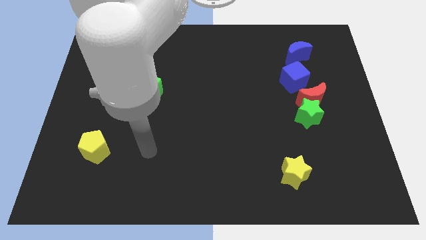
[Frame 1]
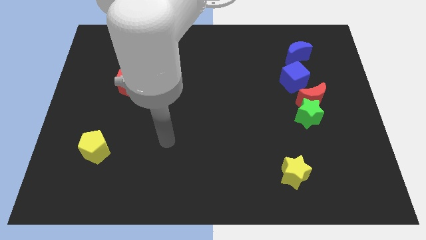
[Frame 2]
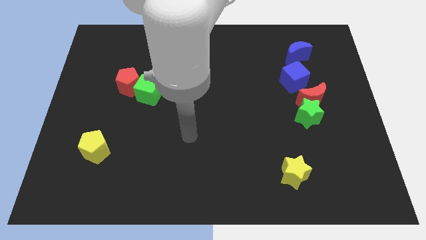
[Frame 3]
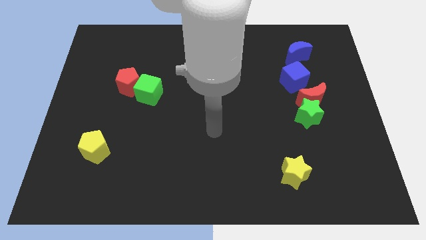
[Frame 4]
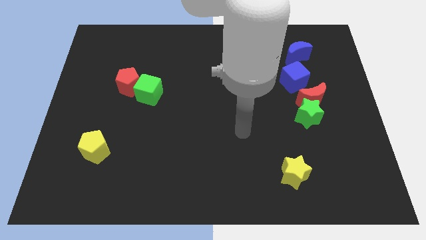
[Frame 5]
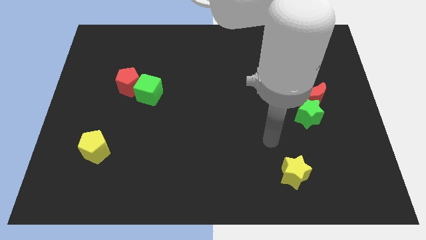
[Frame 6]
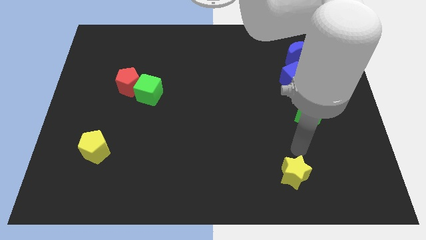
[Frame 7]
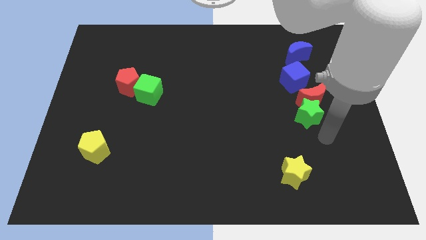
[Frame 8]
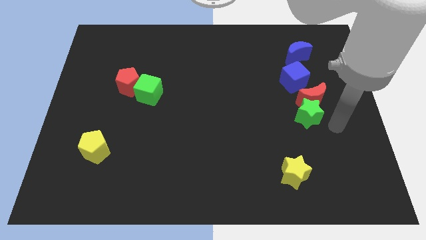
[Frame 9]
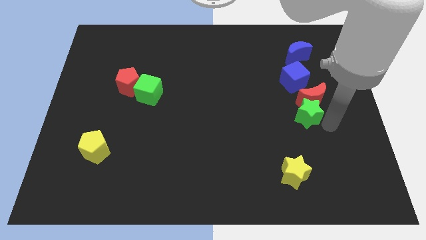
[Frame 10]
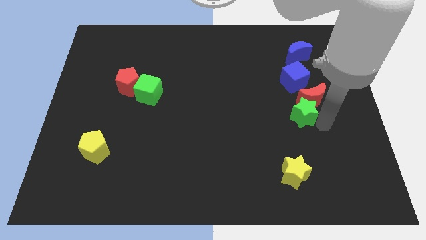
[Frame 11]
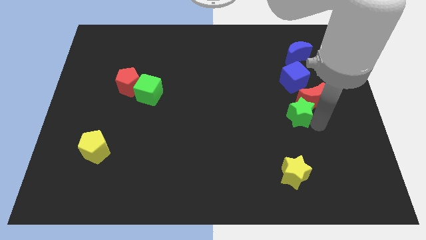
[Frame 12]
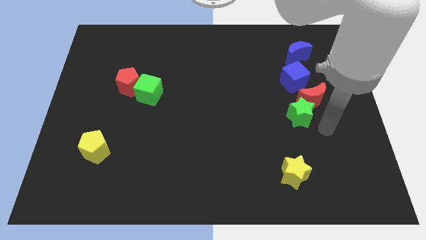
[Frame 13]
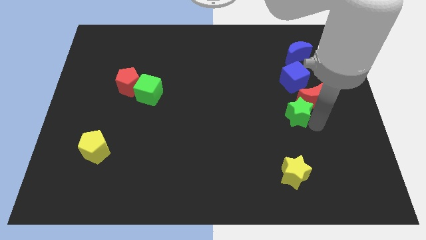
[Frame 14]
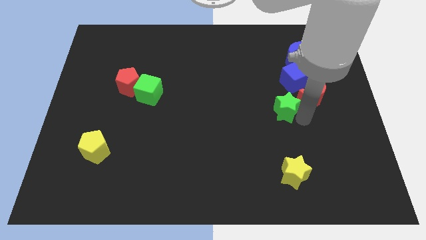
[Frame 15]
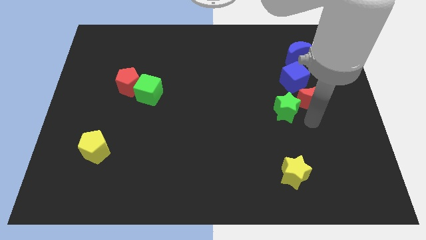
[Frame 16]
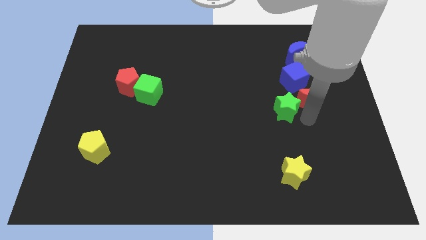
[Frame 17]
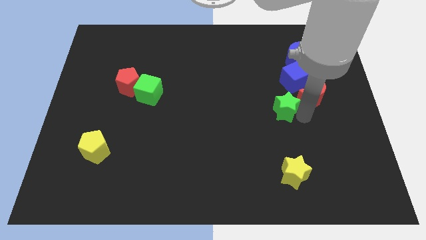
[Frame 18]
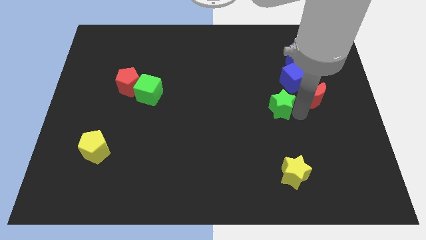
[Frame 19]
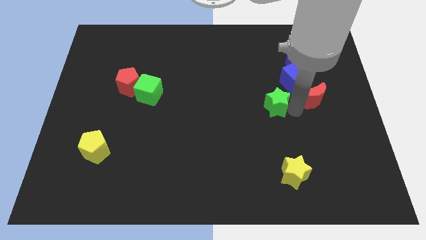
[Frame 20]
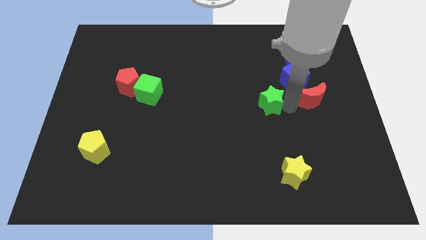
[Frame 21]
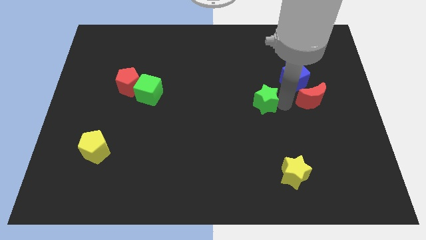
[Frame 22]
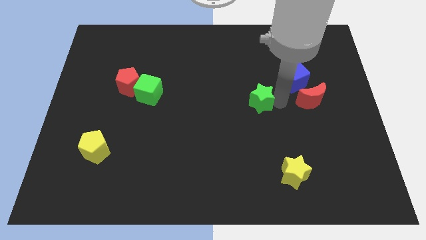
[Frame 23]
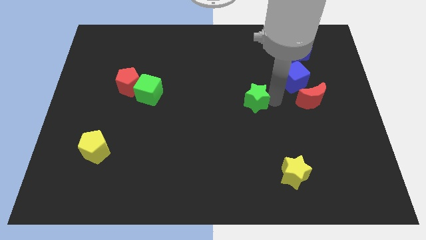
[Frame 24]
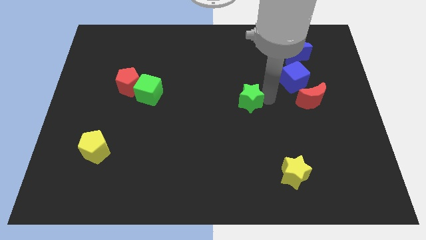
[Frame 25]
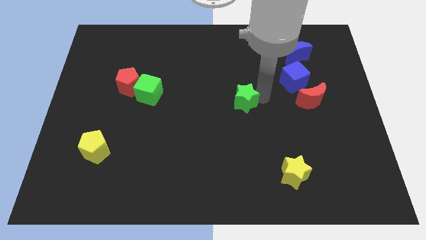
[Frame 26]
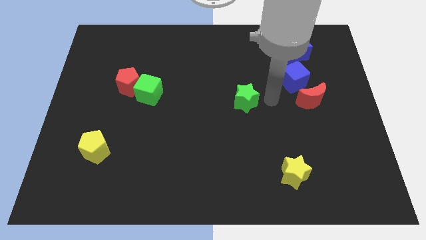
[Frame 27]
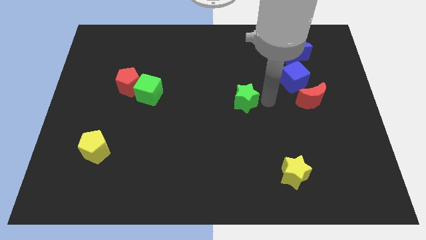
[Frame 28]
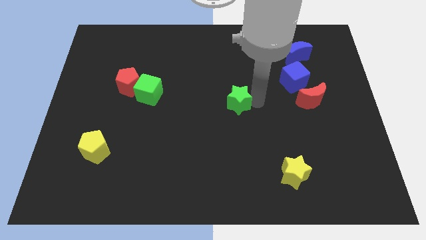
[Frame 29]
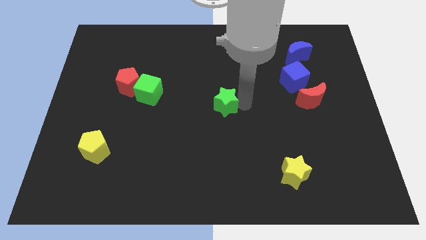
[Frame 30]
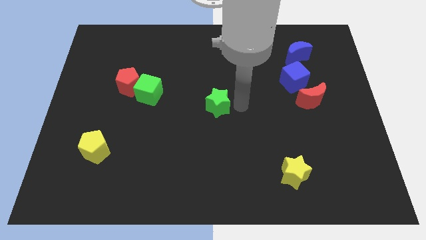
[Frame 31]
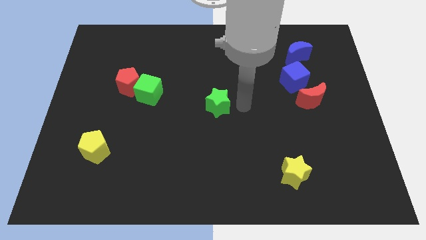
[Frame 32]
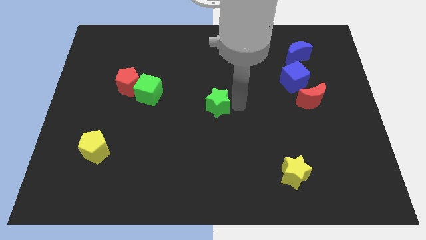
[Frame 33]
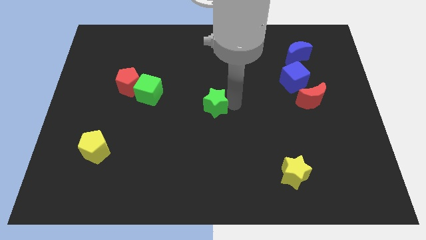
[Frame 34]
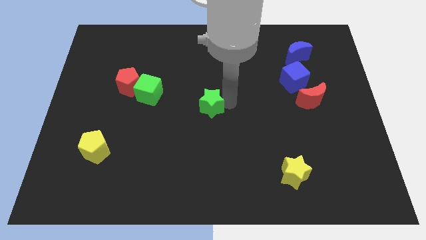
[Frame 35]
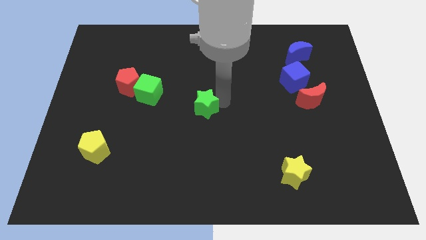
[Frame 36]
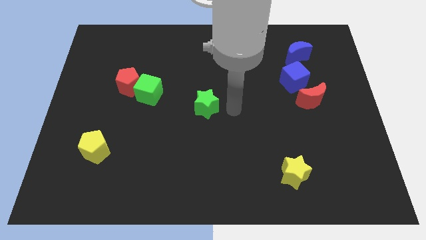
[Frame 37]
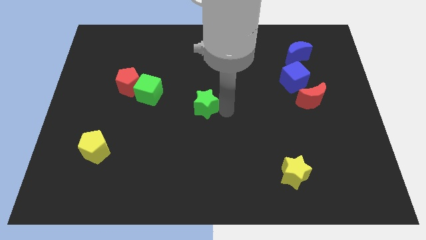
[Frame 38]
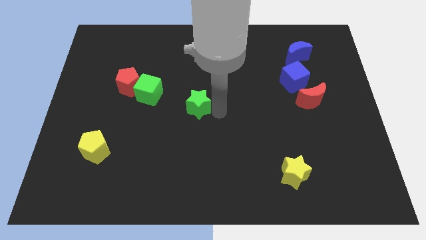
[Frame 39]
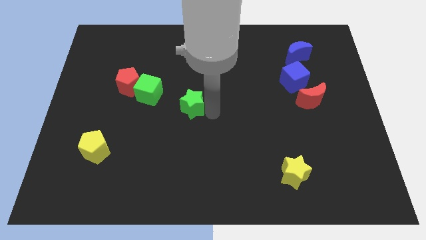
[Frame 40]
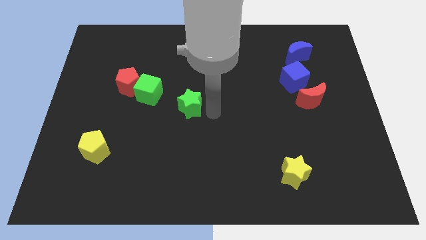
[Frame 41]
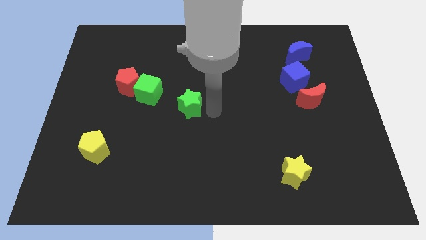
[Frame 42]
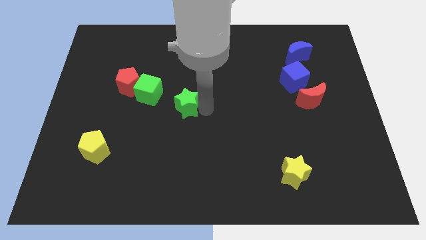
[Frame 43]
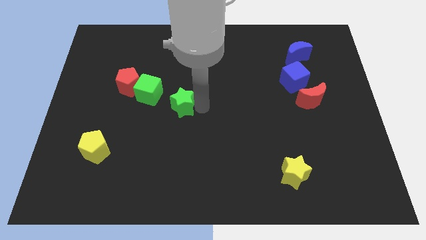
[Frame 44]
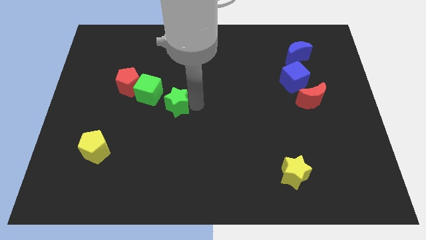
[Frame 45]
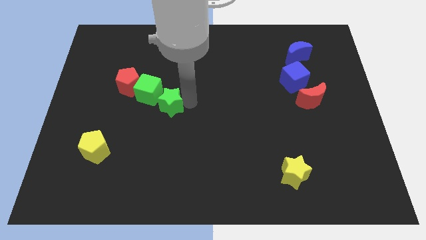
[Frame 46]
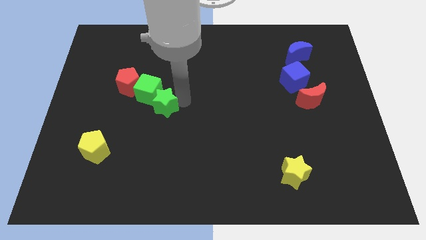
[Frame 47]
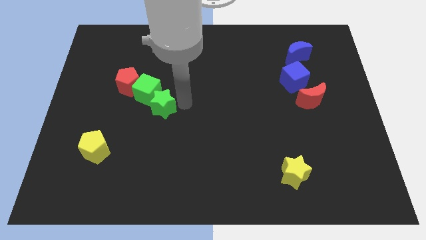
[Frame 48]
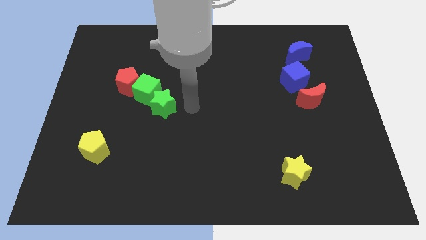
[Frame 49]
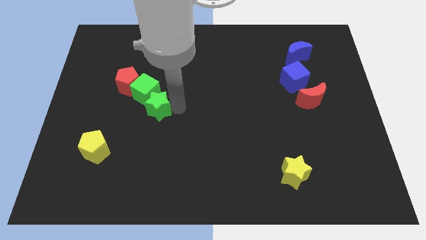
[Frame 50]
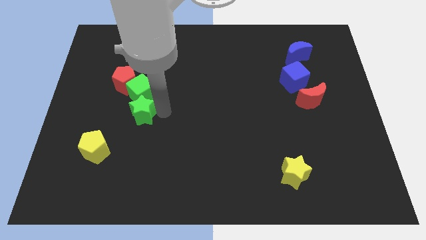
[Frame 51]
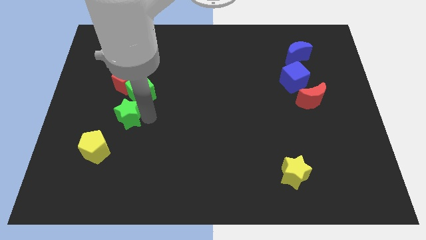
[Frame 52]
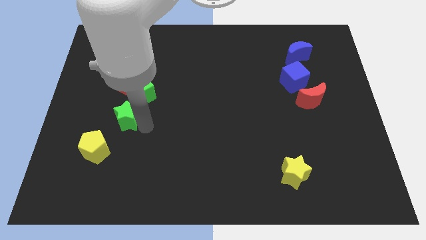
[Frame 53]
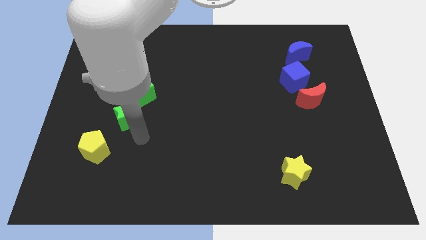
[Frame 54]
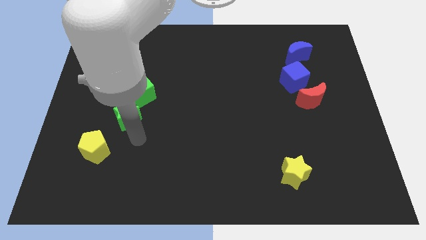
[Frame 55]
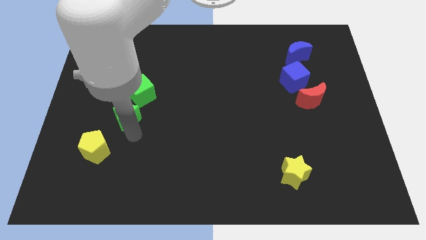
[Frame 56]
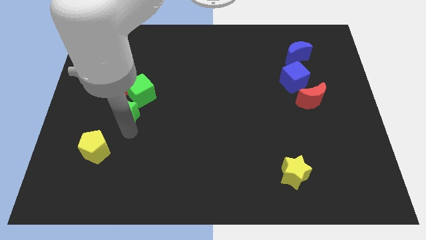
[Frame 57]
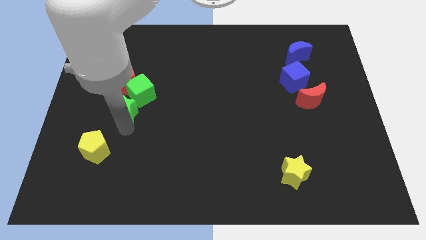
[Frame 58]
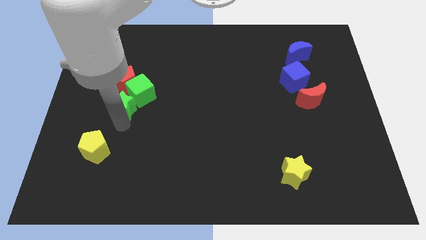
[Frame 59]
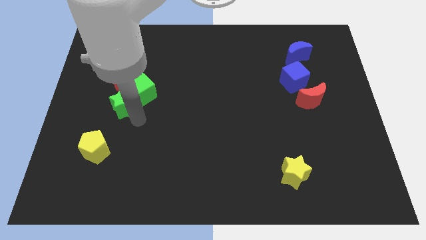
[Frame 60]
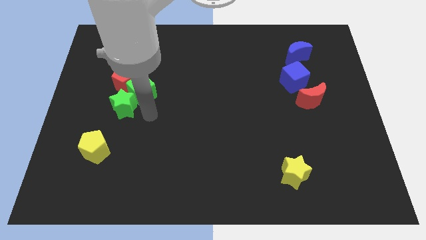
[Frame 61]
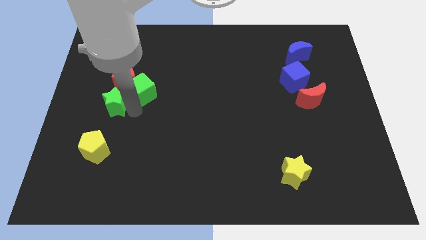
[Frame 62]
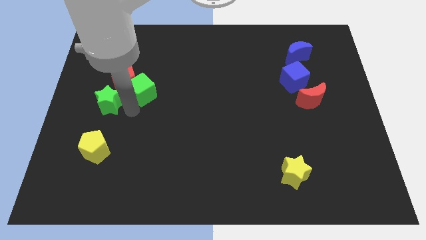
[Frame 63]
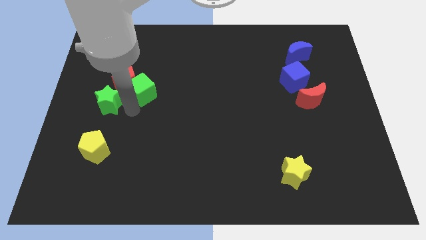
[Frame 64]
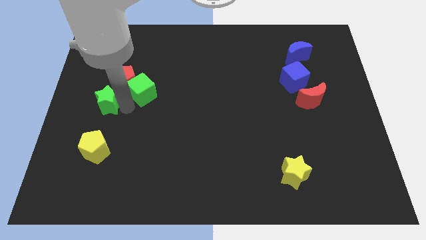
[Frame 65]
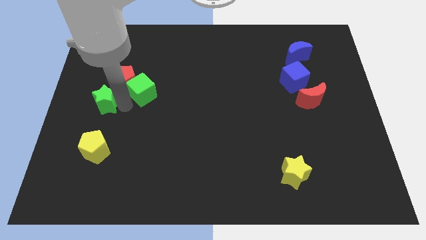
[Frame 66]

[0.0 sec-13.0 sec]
slide the green star to the left side
